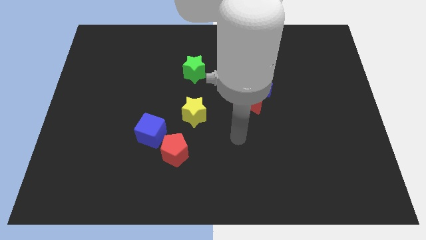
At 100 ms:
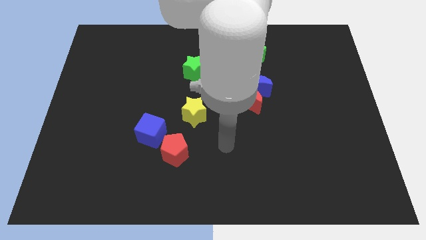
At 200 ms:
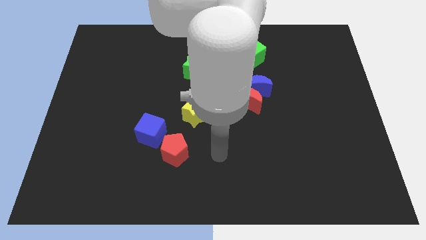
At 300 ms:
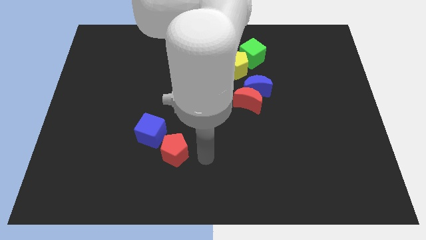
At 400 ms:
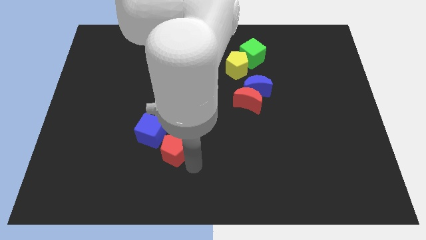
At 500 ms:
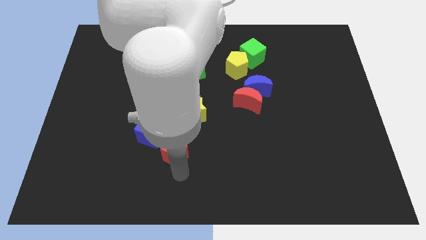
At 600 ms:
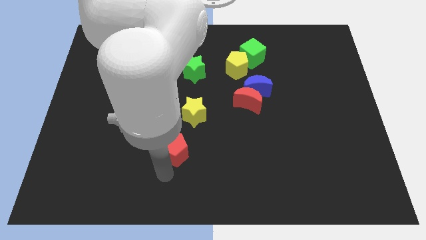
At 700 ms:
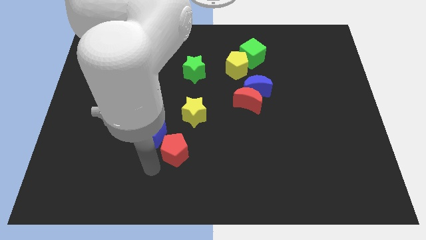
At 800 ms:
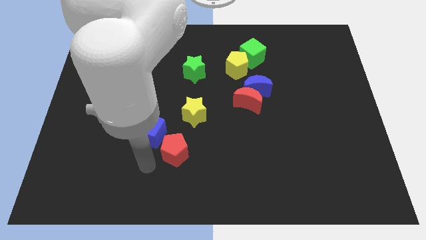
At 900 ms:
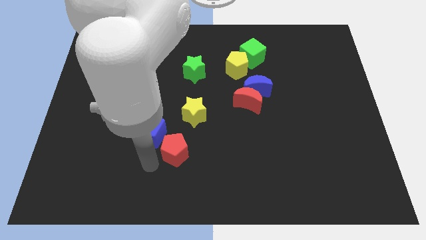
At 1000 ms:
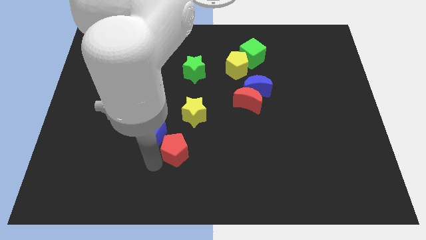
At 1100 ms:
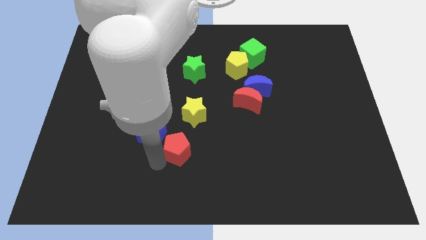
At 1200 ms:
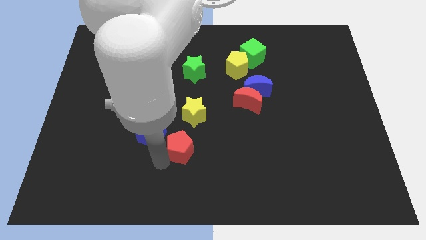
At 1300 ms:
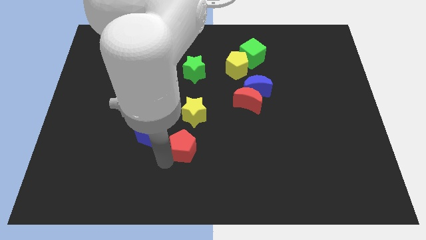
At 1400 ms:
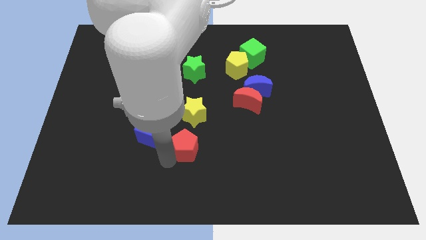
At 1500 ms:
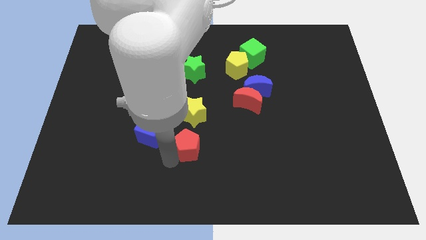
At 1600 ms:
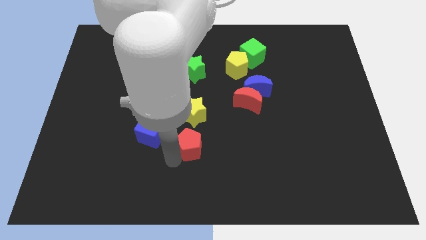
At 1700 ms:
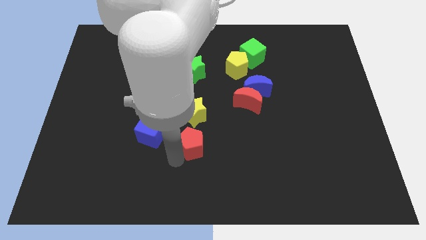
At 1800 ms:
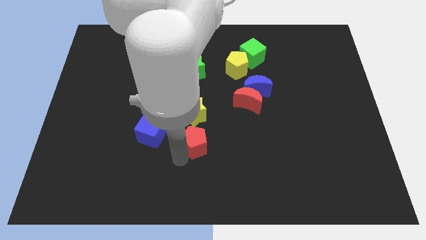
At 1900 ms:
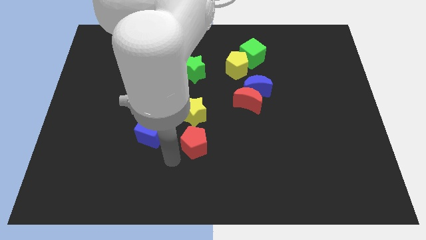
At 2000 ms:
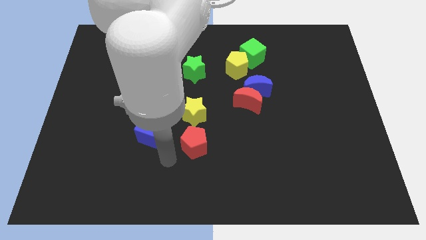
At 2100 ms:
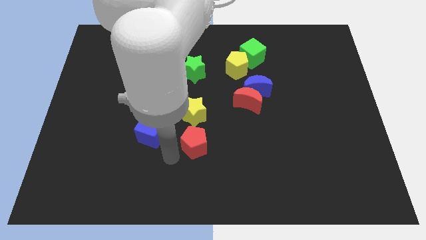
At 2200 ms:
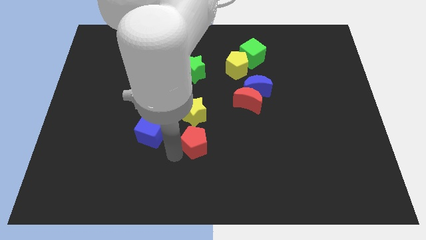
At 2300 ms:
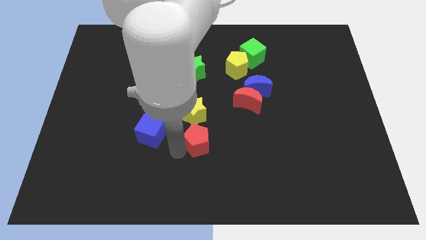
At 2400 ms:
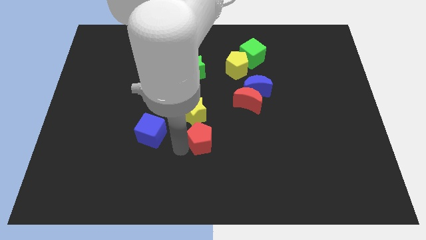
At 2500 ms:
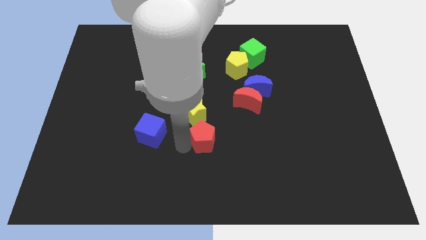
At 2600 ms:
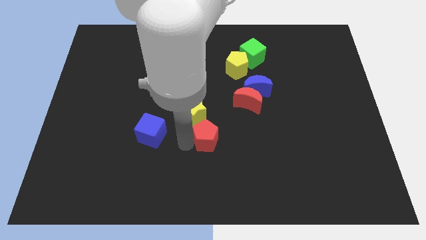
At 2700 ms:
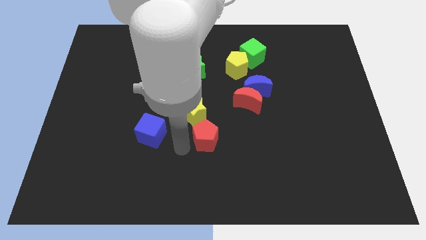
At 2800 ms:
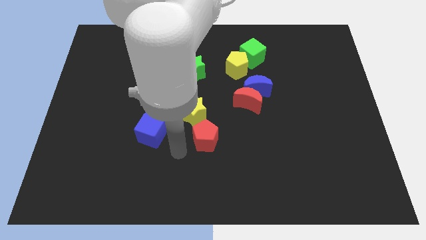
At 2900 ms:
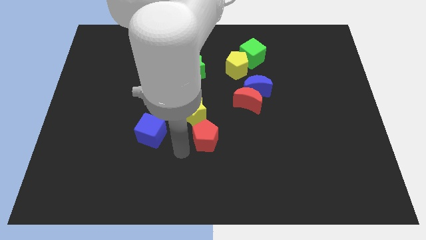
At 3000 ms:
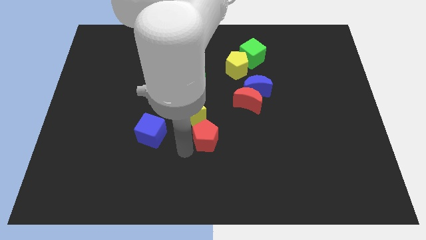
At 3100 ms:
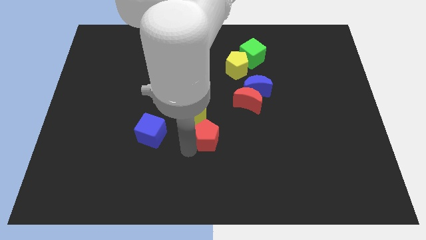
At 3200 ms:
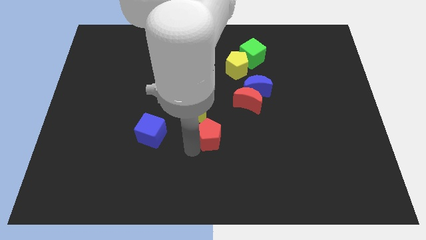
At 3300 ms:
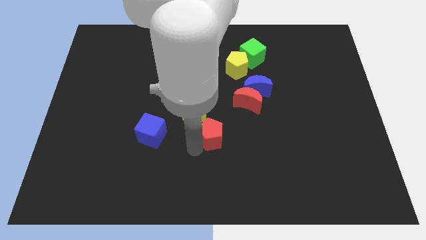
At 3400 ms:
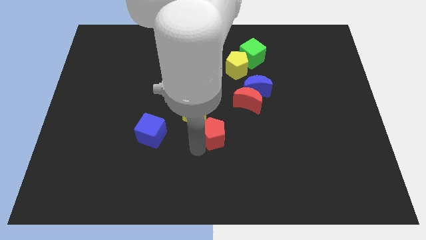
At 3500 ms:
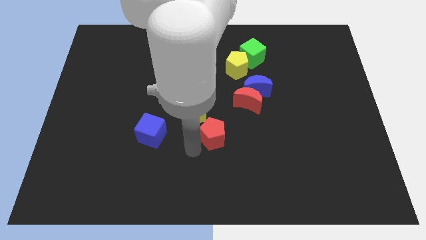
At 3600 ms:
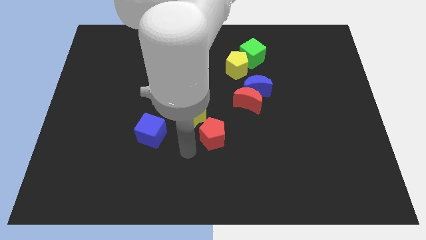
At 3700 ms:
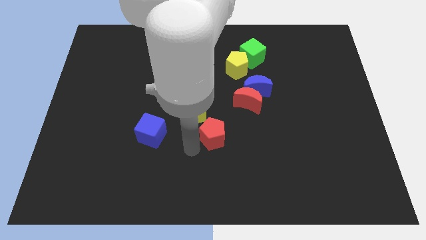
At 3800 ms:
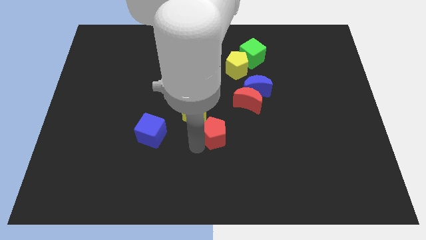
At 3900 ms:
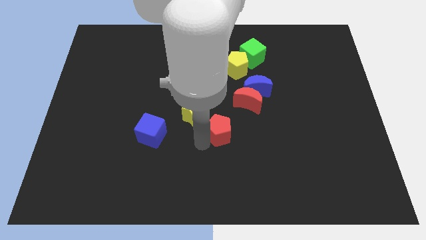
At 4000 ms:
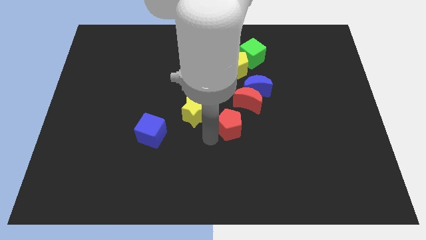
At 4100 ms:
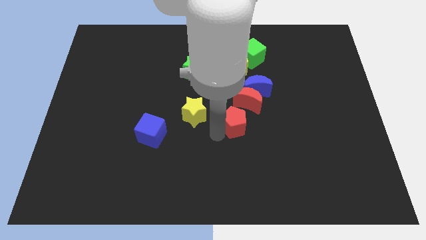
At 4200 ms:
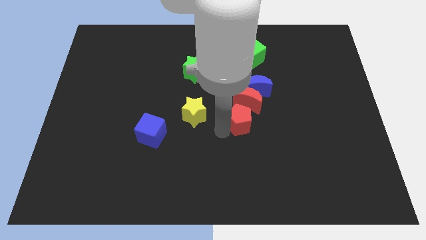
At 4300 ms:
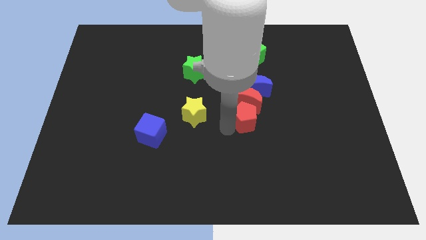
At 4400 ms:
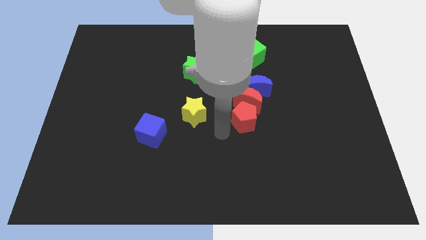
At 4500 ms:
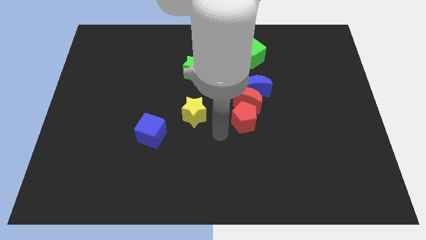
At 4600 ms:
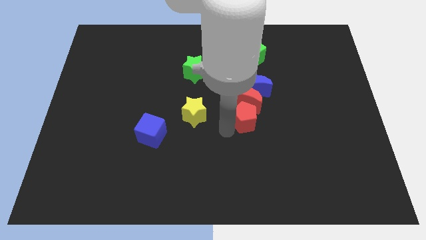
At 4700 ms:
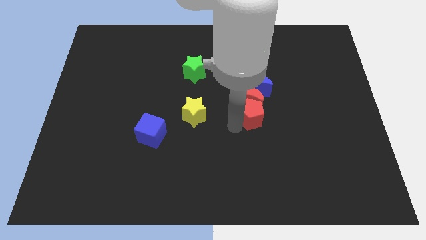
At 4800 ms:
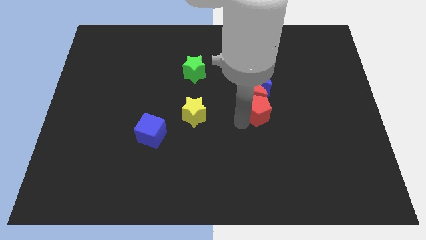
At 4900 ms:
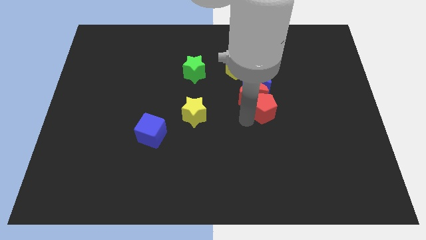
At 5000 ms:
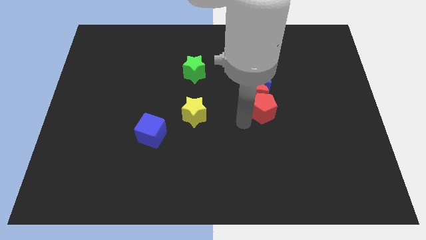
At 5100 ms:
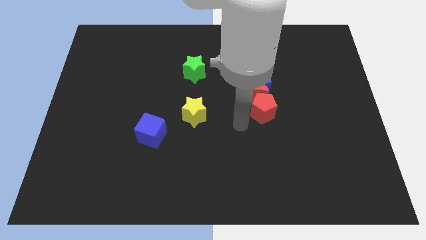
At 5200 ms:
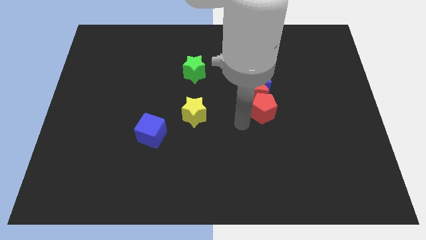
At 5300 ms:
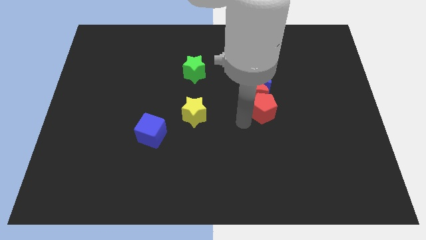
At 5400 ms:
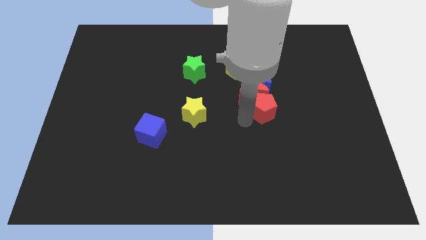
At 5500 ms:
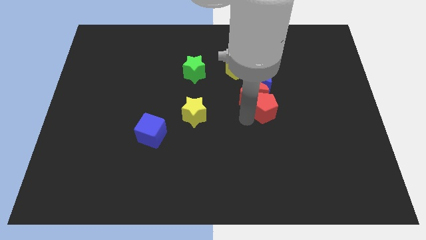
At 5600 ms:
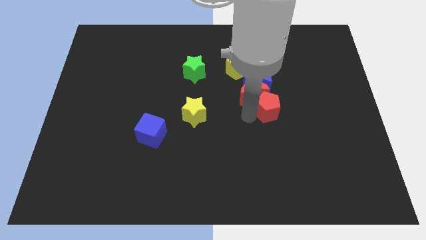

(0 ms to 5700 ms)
push the red pentagon right of the red moon

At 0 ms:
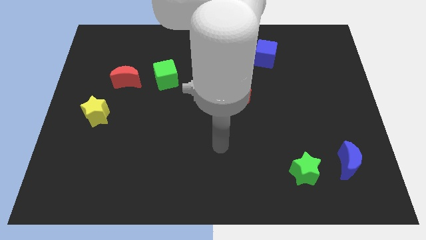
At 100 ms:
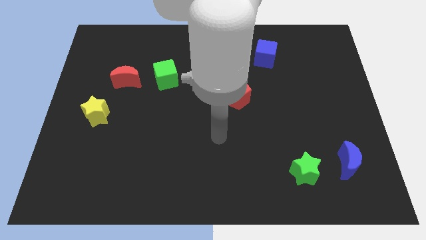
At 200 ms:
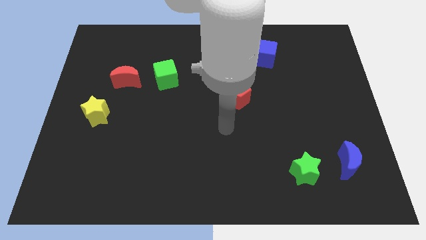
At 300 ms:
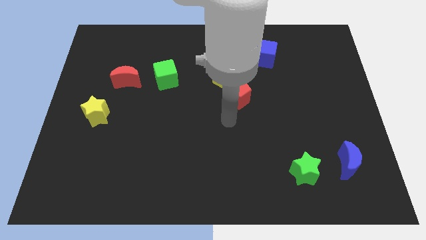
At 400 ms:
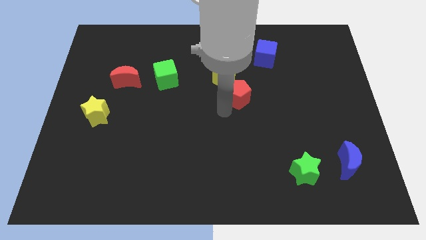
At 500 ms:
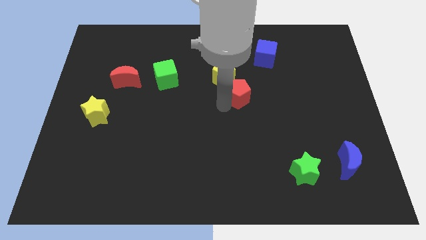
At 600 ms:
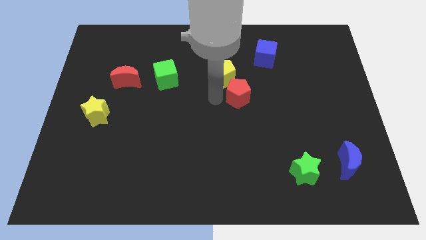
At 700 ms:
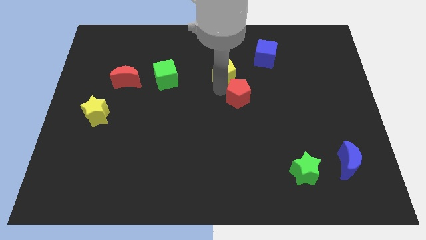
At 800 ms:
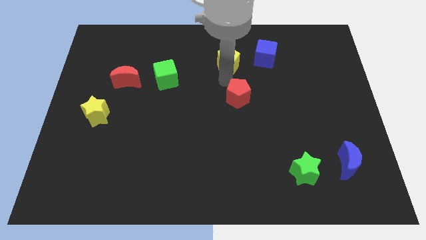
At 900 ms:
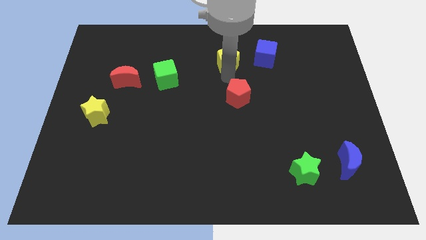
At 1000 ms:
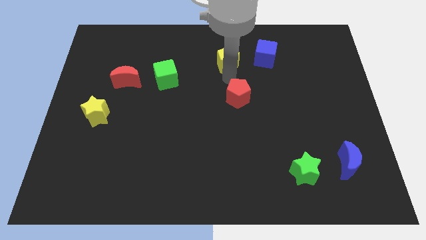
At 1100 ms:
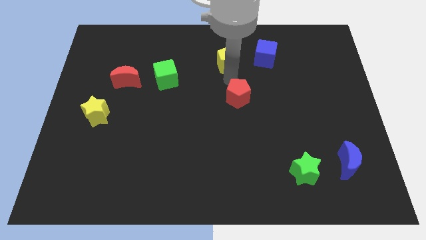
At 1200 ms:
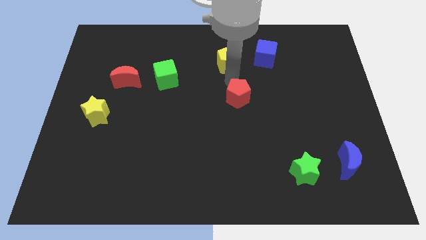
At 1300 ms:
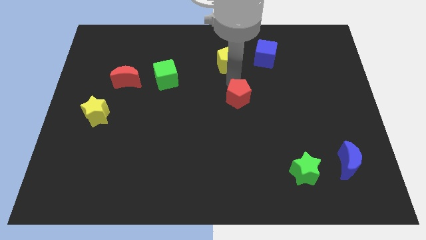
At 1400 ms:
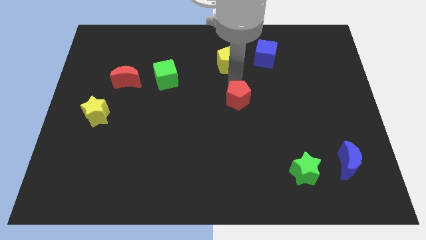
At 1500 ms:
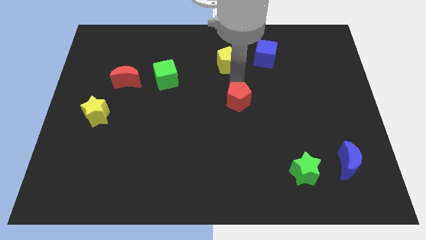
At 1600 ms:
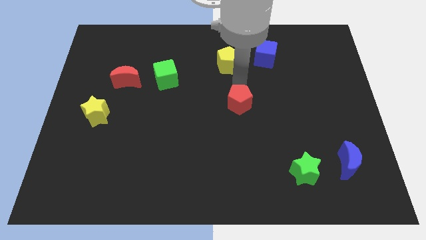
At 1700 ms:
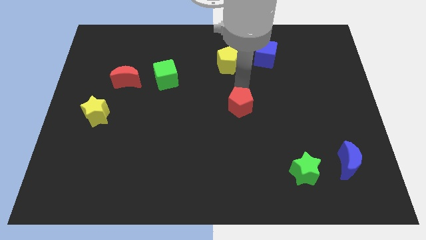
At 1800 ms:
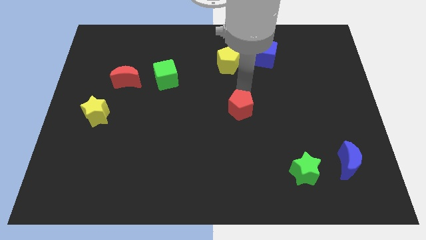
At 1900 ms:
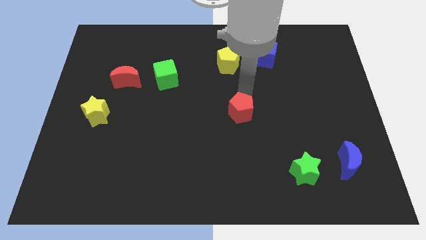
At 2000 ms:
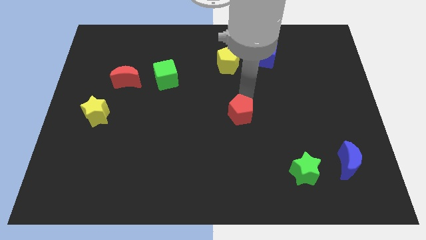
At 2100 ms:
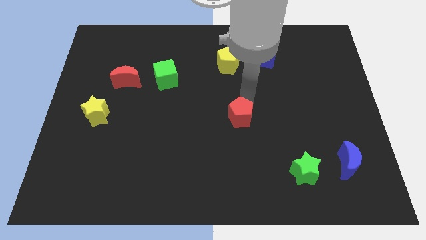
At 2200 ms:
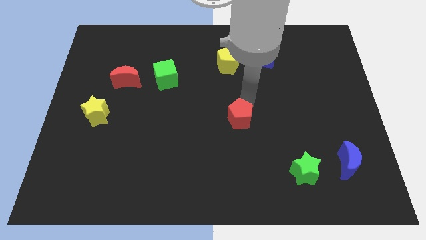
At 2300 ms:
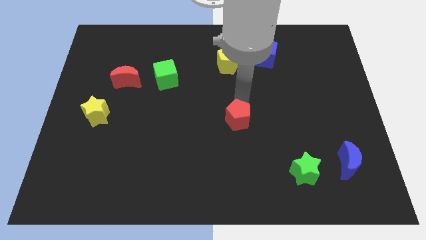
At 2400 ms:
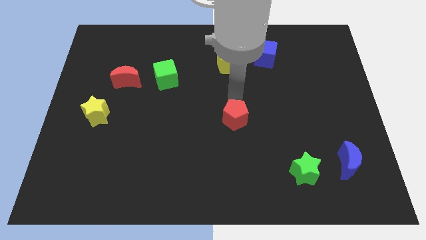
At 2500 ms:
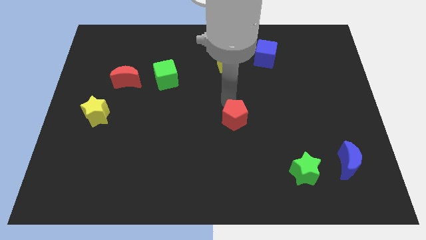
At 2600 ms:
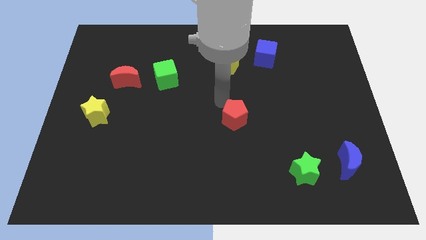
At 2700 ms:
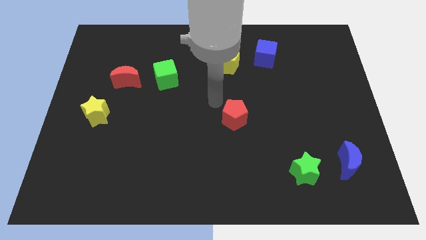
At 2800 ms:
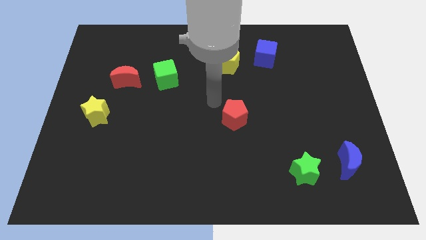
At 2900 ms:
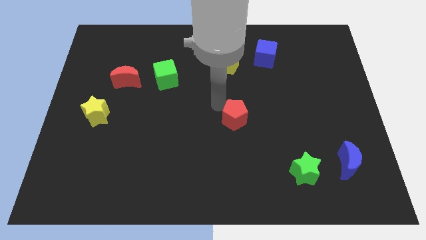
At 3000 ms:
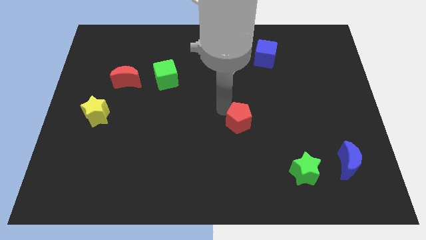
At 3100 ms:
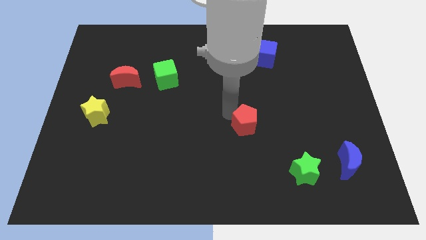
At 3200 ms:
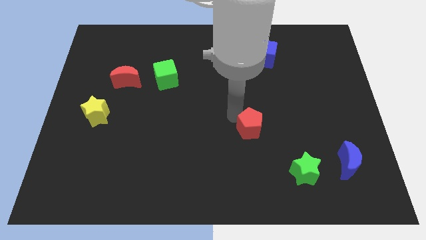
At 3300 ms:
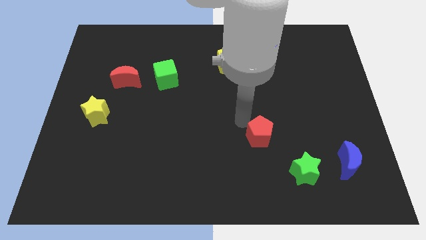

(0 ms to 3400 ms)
move the red pentagon to the top left of the green star
